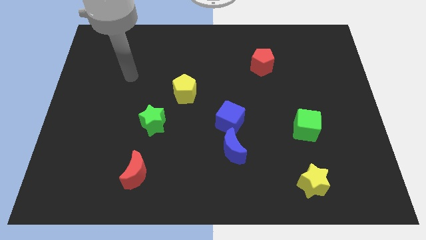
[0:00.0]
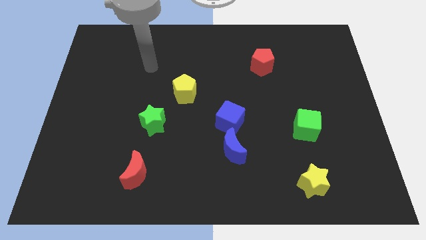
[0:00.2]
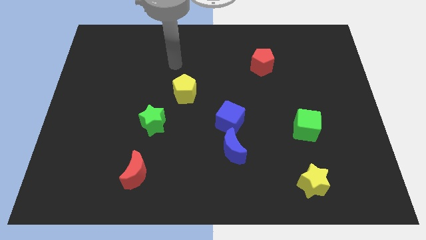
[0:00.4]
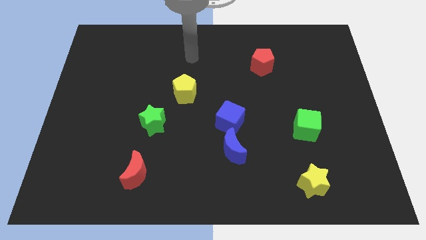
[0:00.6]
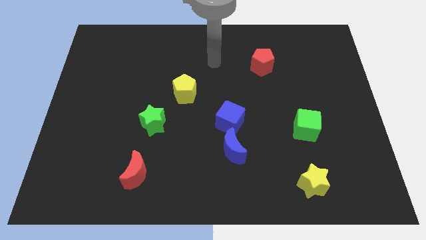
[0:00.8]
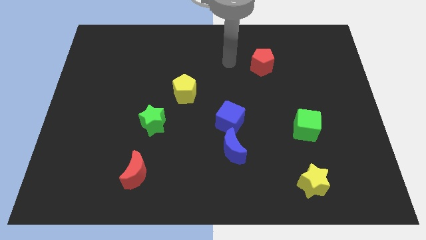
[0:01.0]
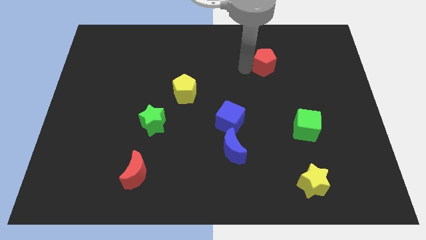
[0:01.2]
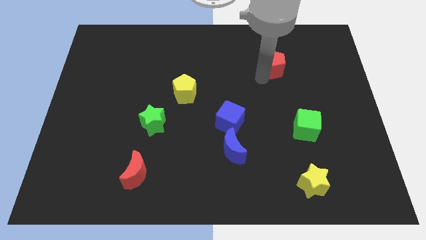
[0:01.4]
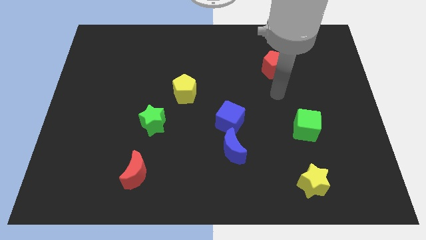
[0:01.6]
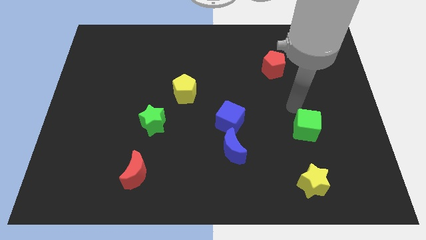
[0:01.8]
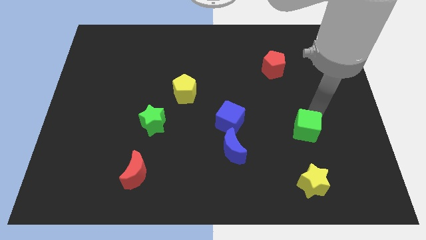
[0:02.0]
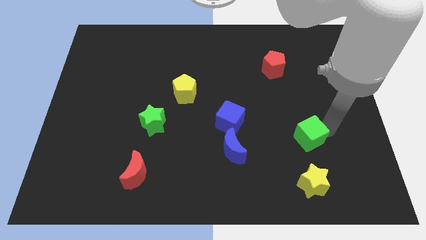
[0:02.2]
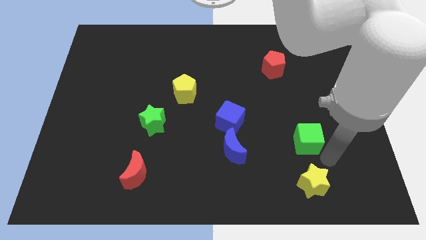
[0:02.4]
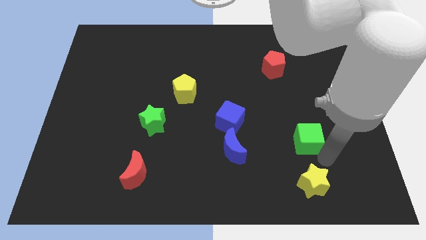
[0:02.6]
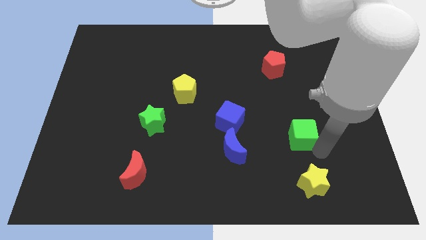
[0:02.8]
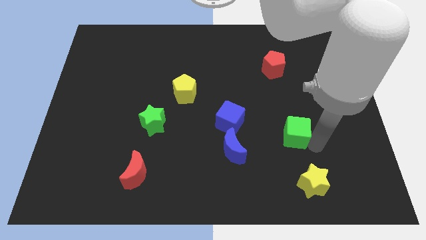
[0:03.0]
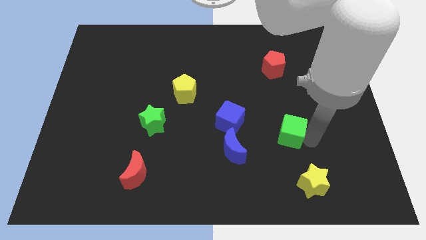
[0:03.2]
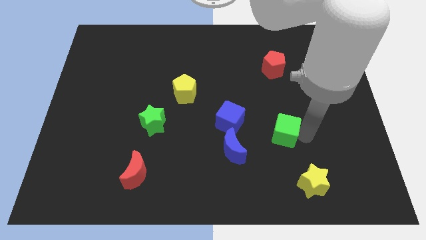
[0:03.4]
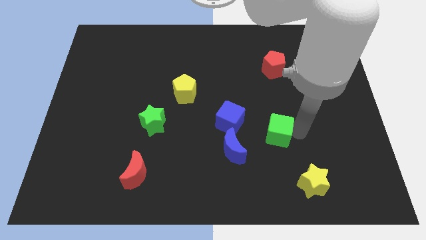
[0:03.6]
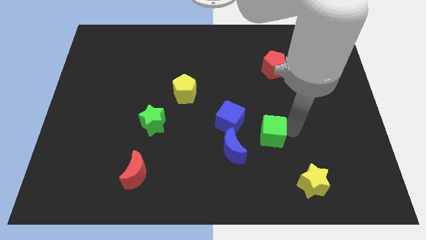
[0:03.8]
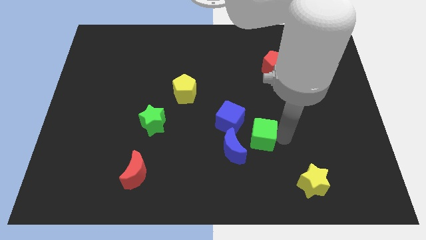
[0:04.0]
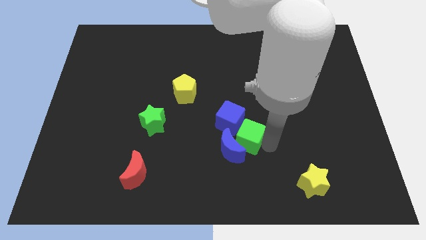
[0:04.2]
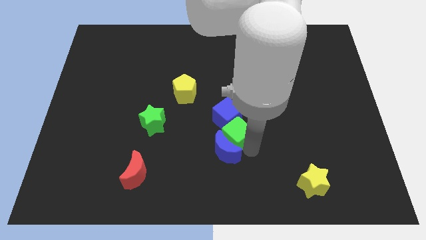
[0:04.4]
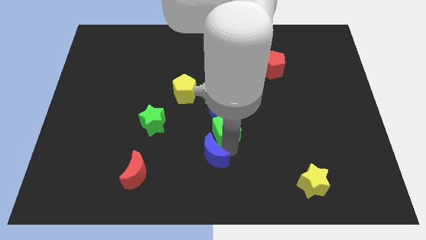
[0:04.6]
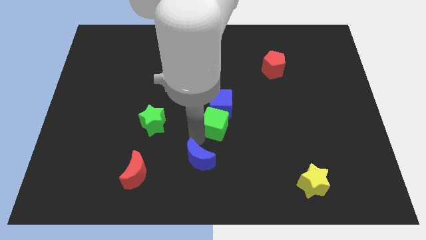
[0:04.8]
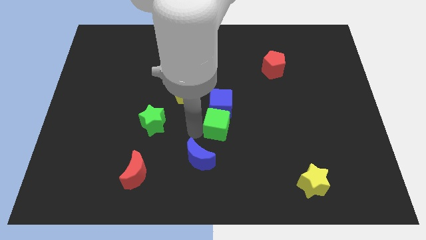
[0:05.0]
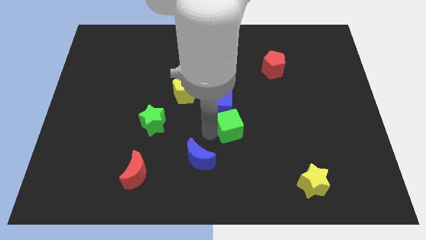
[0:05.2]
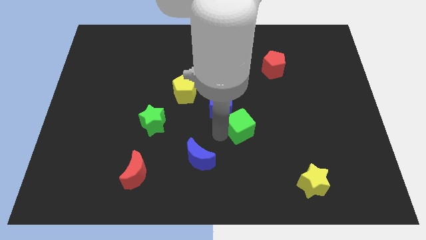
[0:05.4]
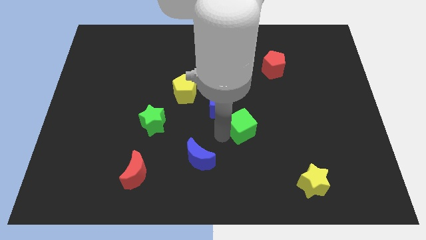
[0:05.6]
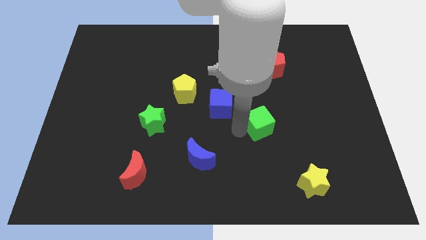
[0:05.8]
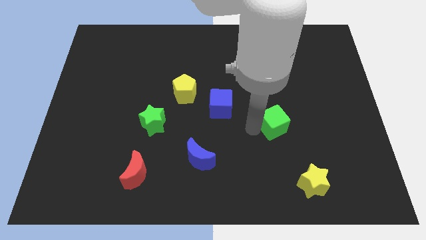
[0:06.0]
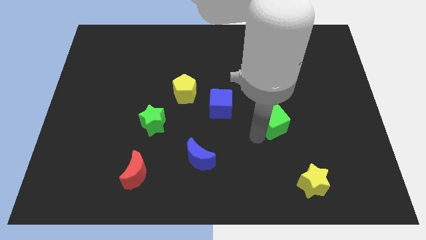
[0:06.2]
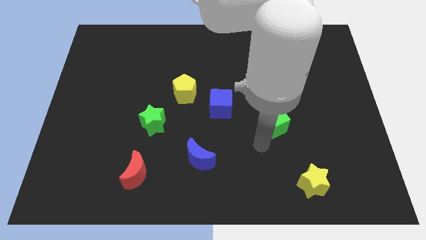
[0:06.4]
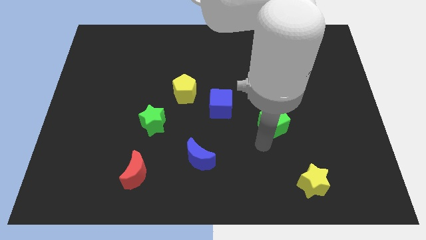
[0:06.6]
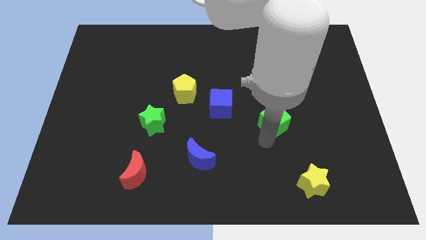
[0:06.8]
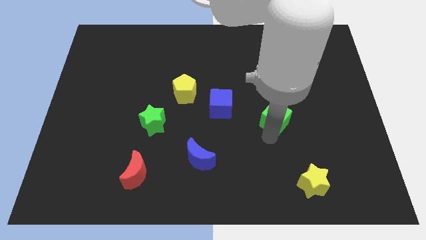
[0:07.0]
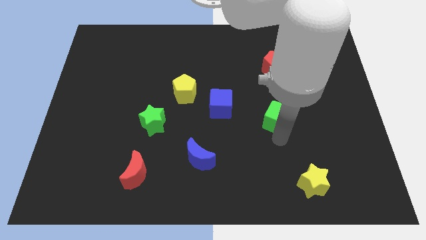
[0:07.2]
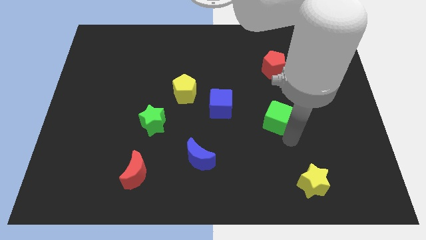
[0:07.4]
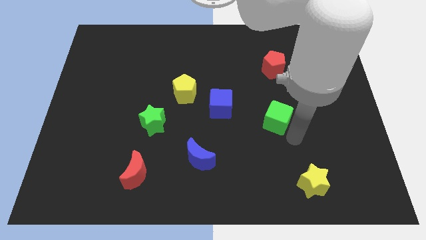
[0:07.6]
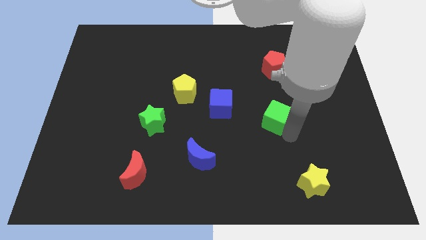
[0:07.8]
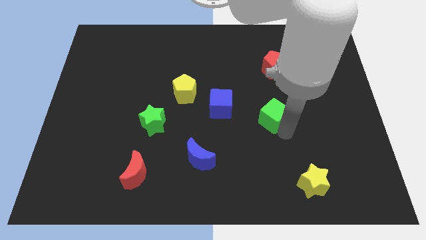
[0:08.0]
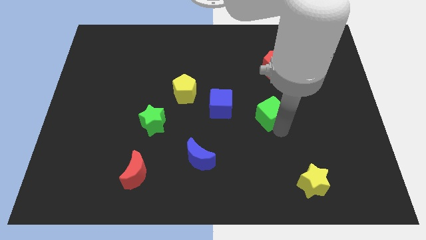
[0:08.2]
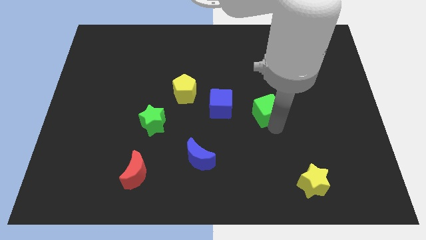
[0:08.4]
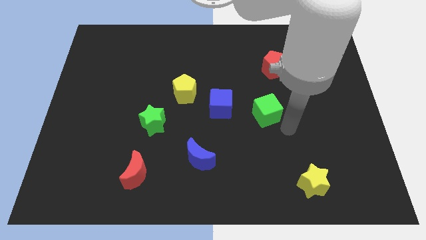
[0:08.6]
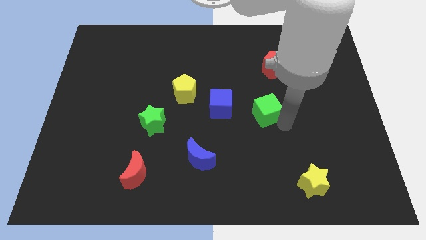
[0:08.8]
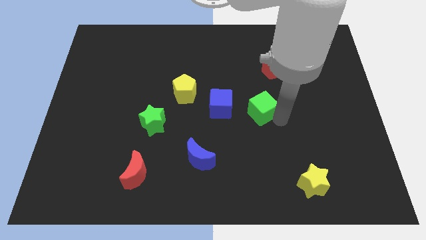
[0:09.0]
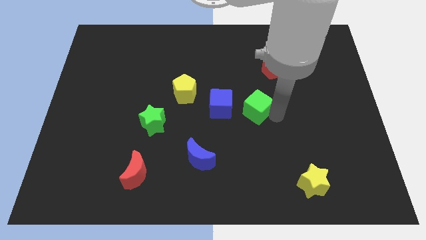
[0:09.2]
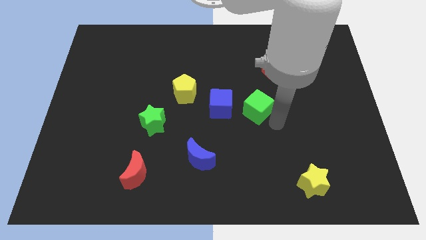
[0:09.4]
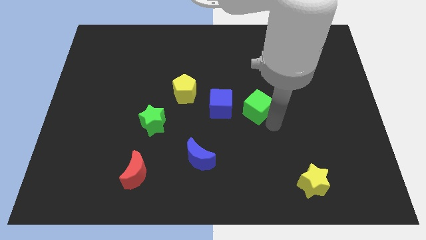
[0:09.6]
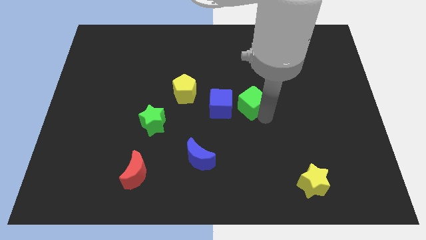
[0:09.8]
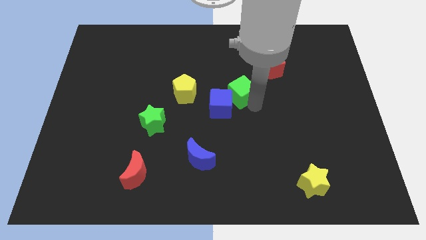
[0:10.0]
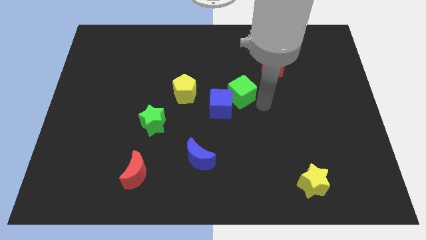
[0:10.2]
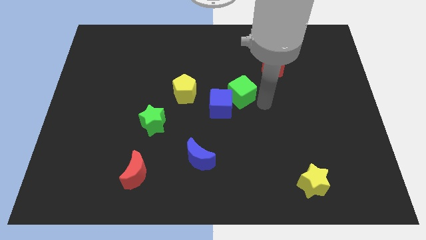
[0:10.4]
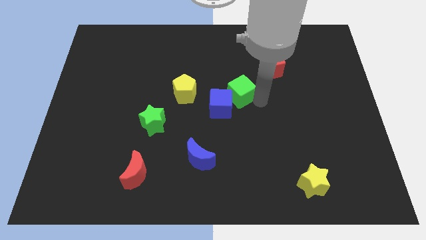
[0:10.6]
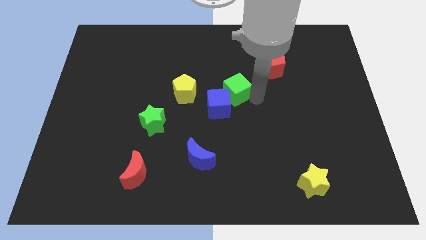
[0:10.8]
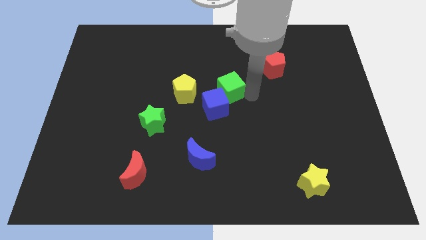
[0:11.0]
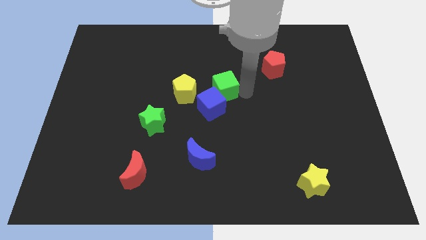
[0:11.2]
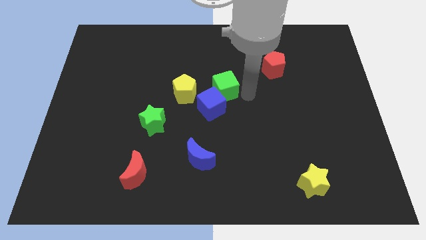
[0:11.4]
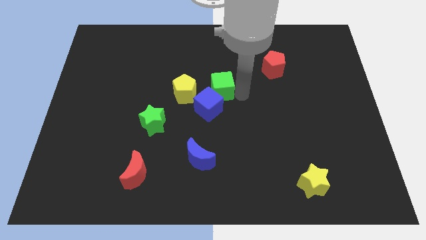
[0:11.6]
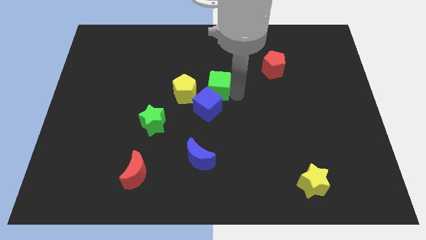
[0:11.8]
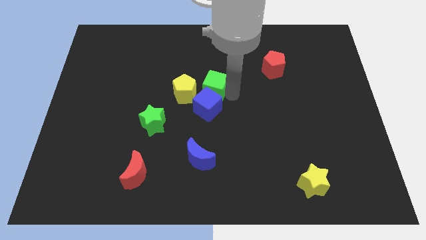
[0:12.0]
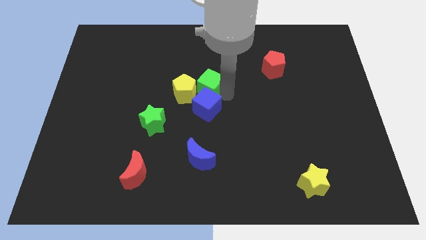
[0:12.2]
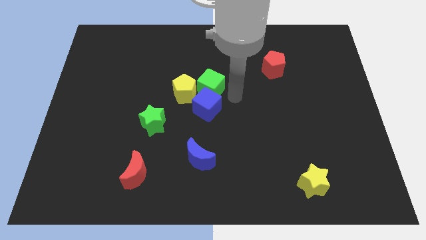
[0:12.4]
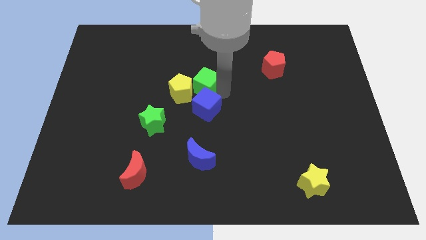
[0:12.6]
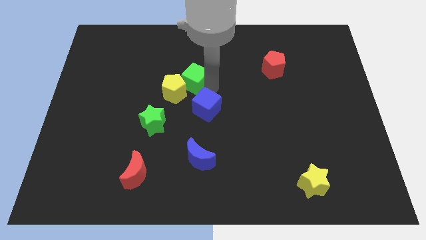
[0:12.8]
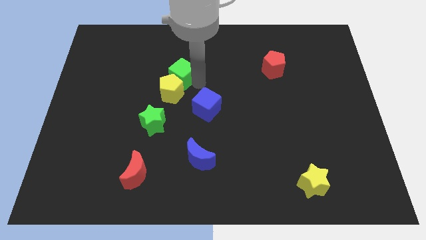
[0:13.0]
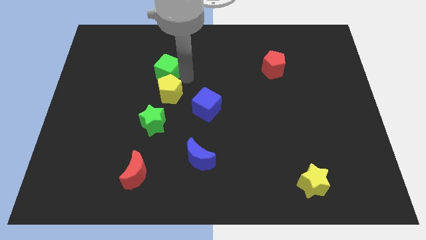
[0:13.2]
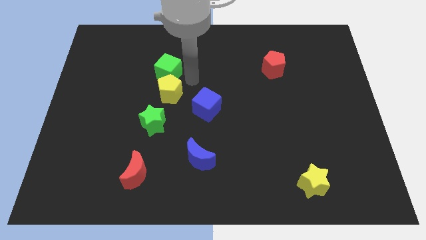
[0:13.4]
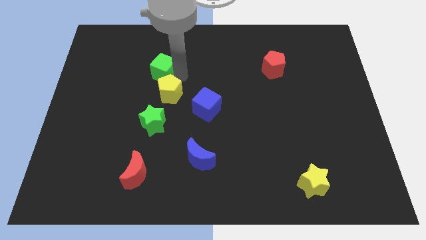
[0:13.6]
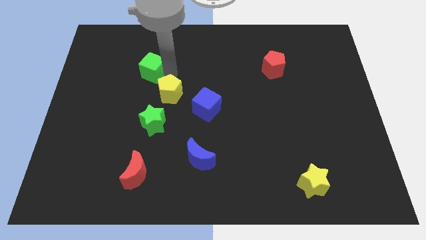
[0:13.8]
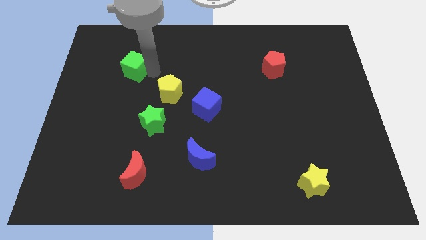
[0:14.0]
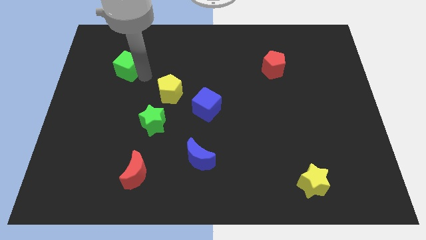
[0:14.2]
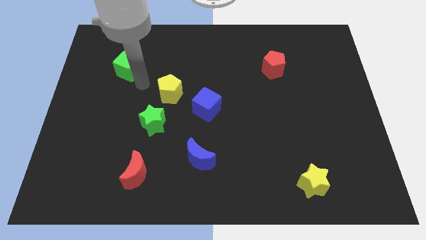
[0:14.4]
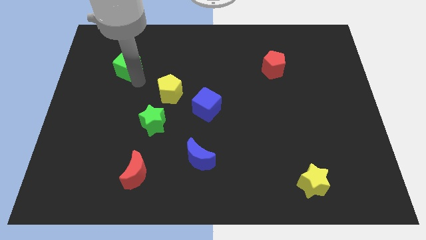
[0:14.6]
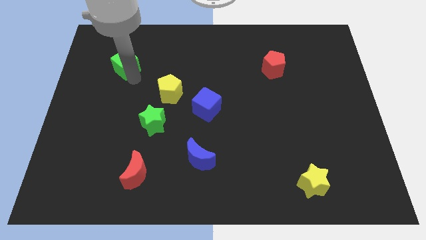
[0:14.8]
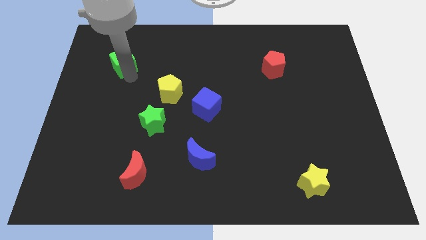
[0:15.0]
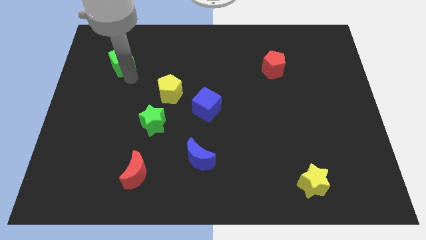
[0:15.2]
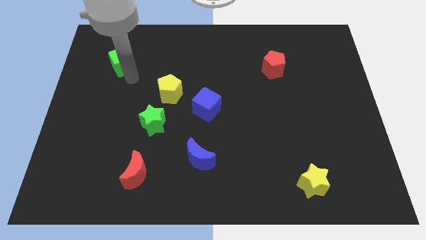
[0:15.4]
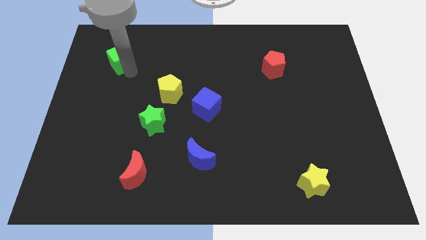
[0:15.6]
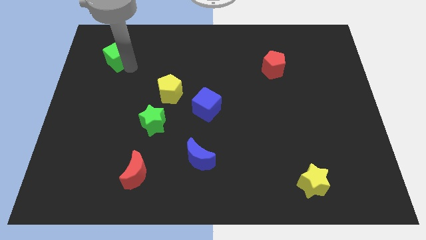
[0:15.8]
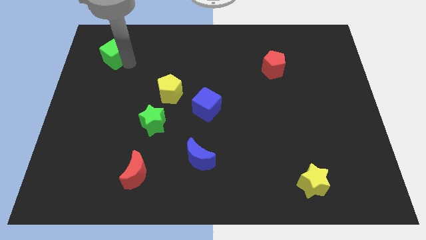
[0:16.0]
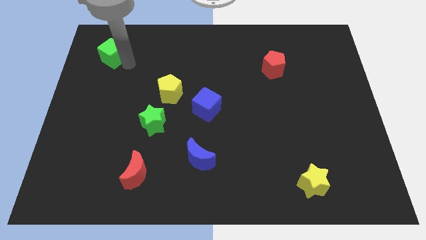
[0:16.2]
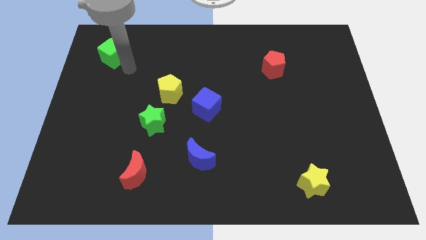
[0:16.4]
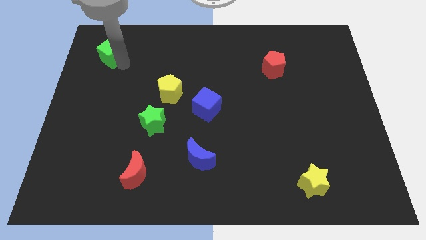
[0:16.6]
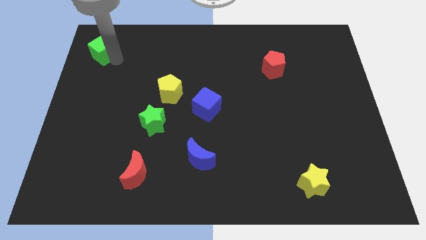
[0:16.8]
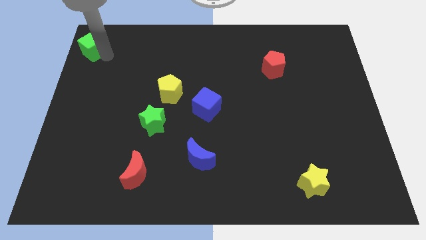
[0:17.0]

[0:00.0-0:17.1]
move the green cube to the top left
